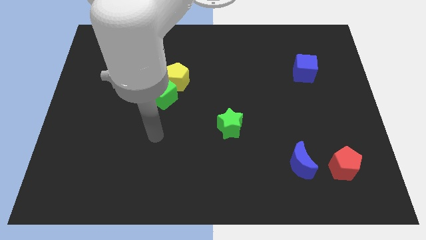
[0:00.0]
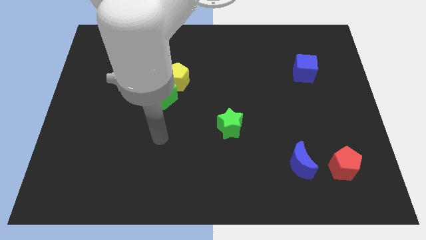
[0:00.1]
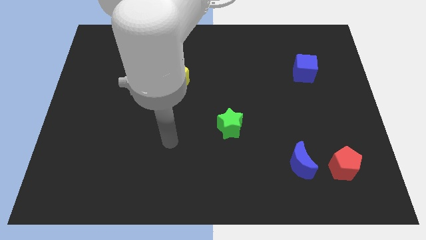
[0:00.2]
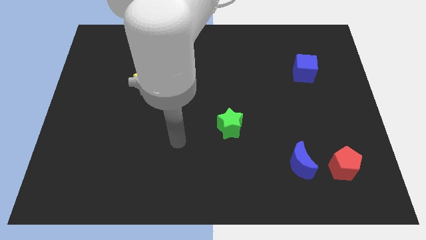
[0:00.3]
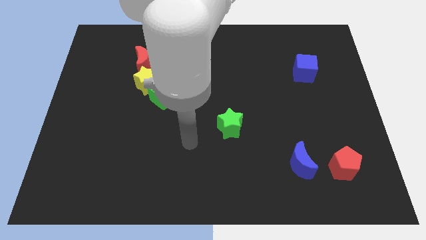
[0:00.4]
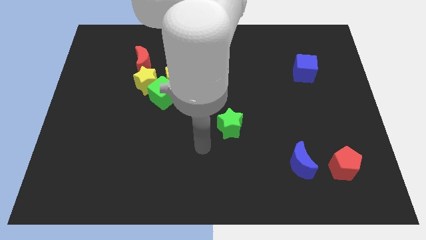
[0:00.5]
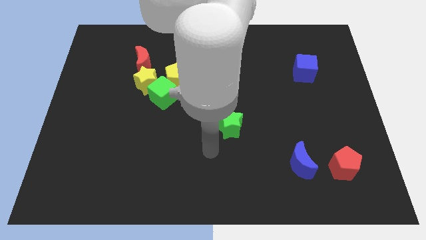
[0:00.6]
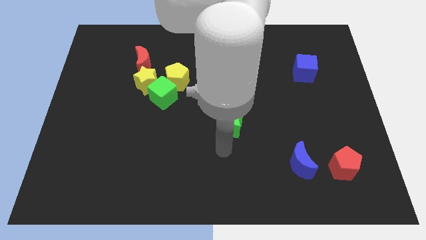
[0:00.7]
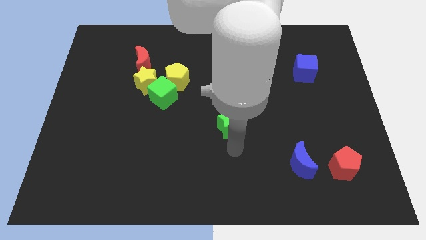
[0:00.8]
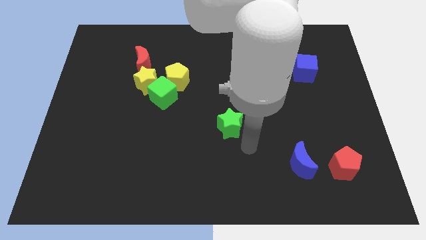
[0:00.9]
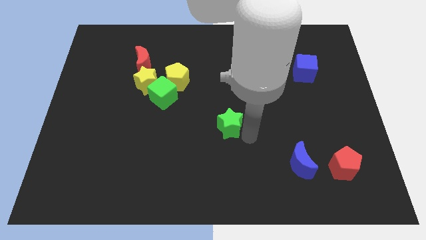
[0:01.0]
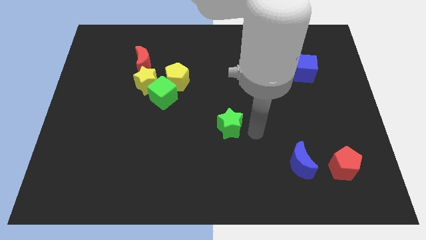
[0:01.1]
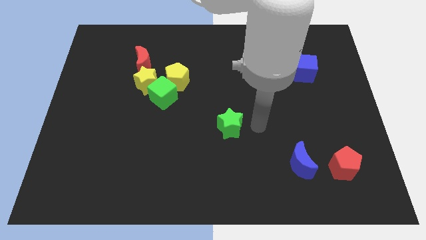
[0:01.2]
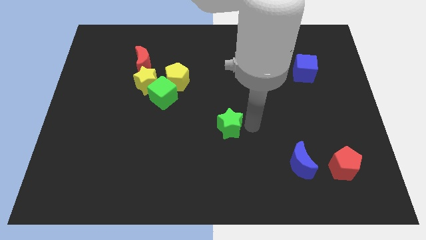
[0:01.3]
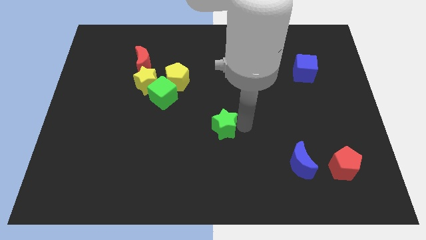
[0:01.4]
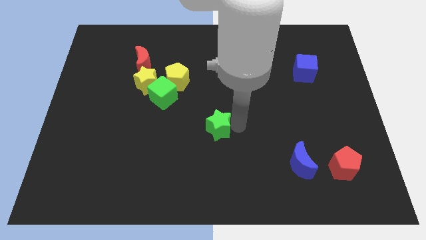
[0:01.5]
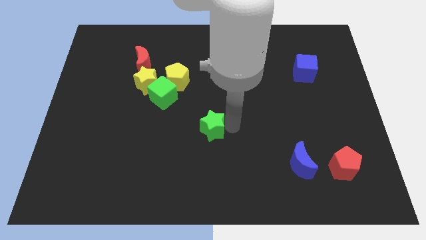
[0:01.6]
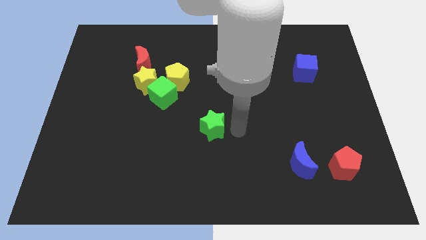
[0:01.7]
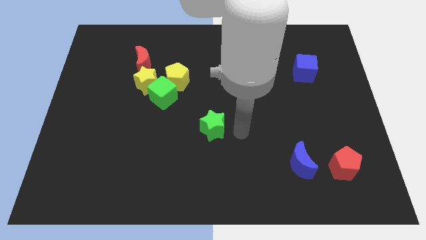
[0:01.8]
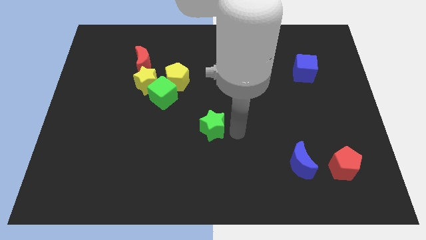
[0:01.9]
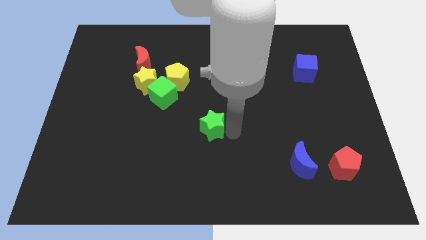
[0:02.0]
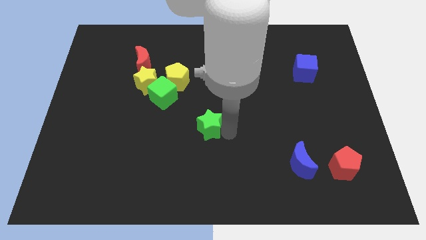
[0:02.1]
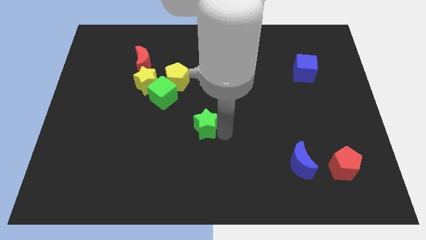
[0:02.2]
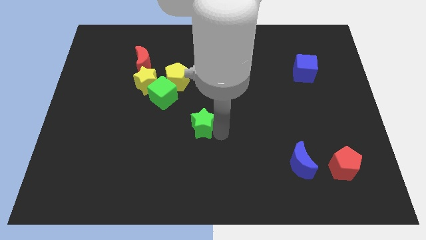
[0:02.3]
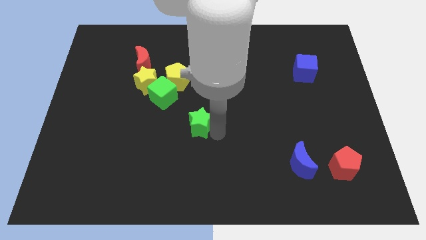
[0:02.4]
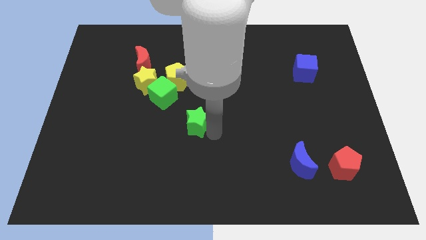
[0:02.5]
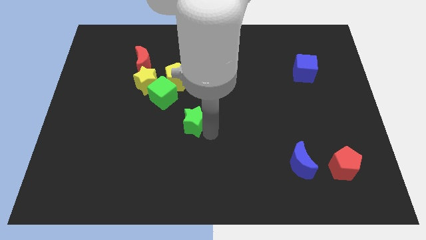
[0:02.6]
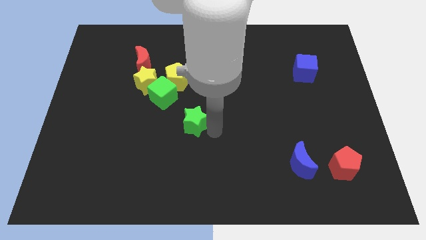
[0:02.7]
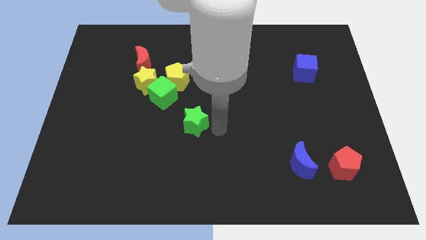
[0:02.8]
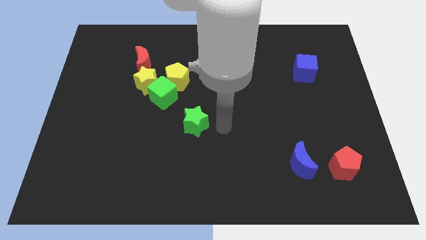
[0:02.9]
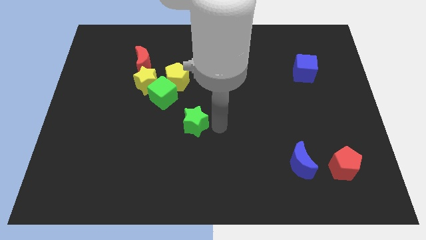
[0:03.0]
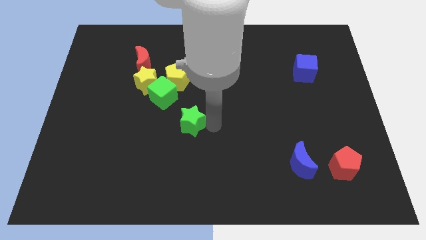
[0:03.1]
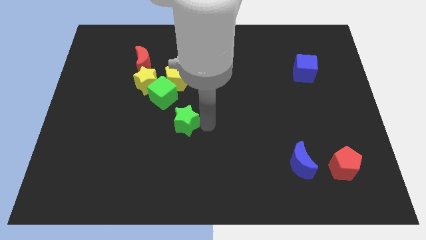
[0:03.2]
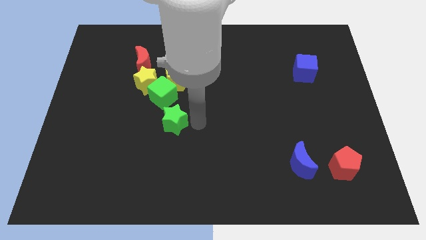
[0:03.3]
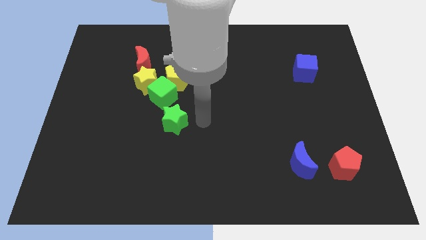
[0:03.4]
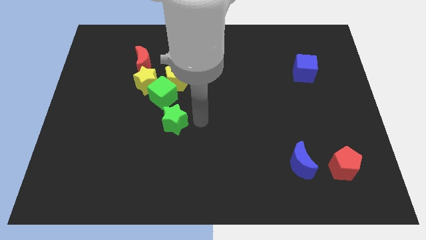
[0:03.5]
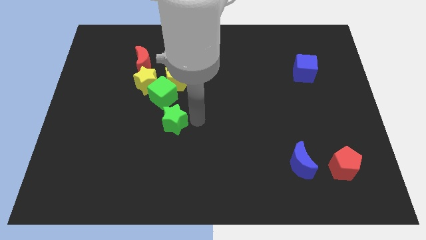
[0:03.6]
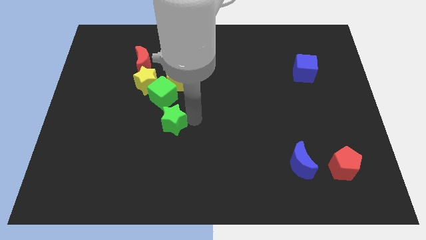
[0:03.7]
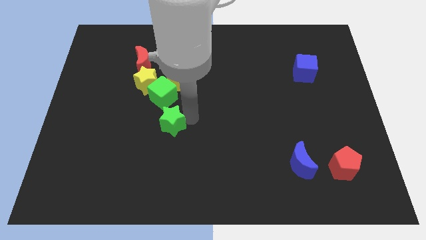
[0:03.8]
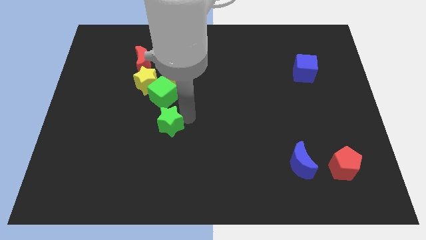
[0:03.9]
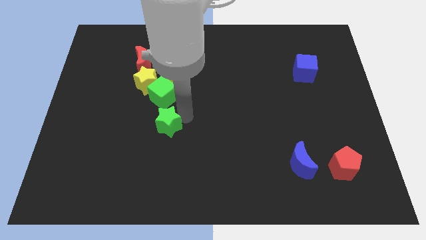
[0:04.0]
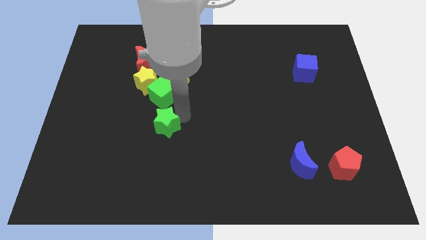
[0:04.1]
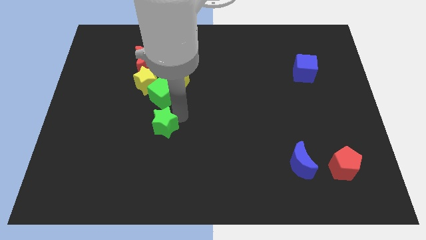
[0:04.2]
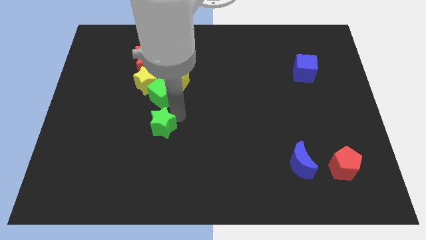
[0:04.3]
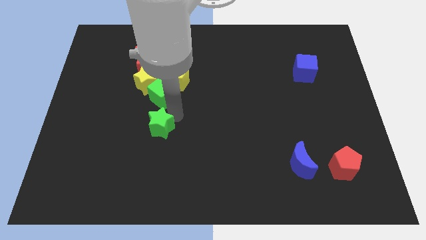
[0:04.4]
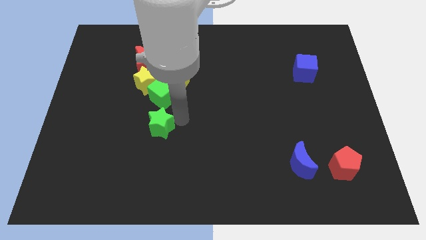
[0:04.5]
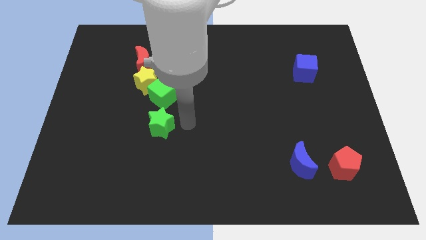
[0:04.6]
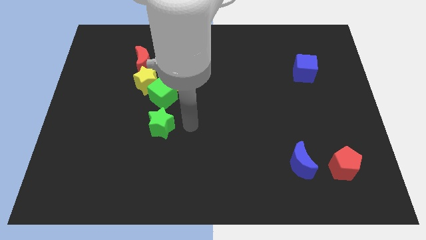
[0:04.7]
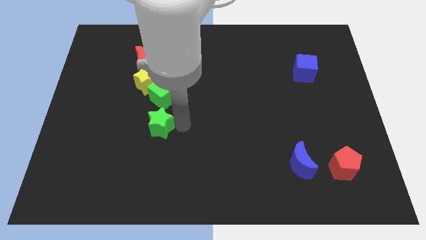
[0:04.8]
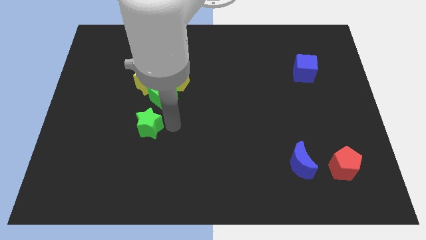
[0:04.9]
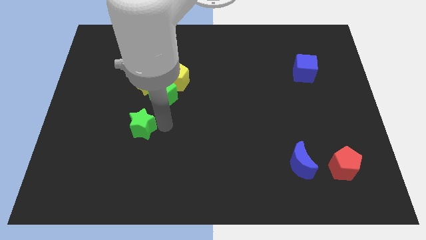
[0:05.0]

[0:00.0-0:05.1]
move the green star left

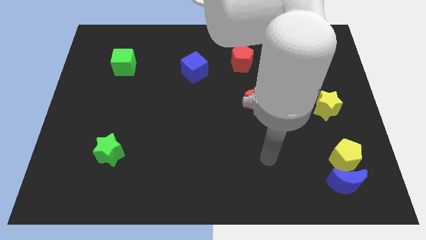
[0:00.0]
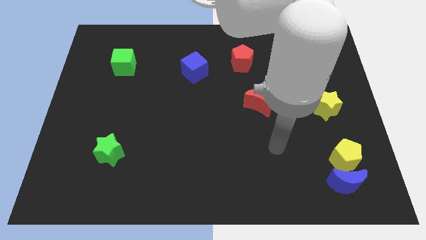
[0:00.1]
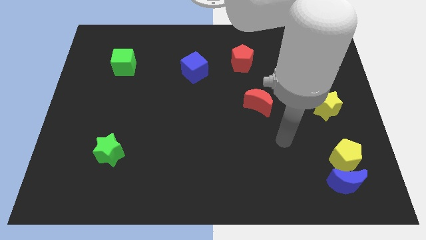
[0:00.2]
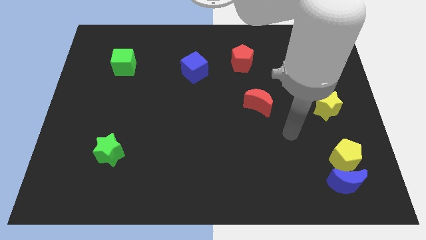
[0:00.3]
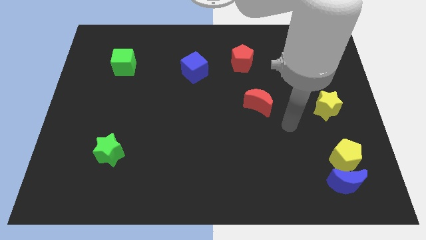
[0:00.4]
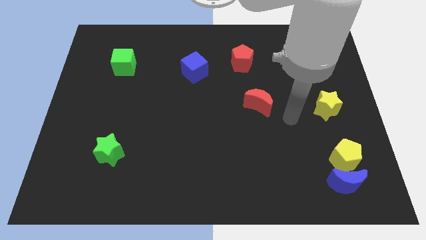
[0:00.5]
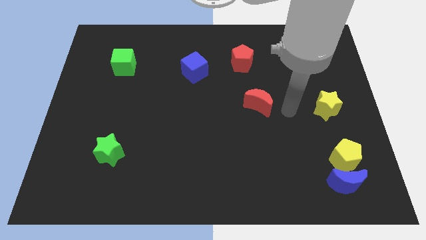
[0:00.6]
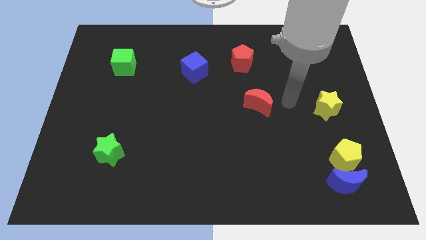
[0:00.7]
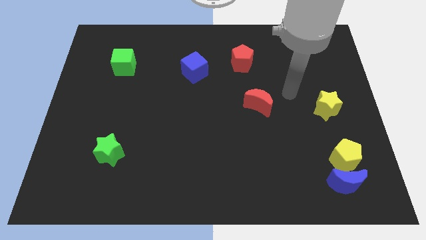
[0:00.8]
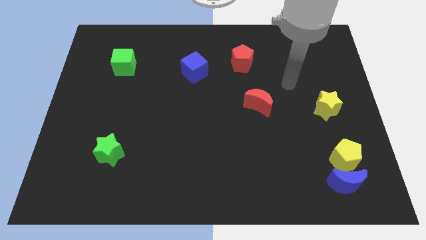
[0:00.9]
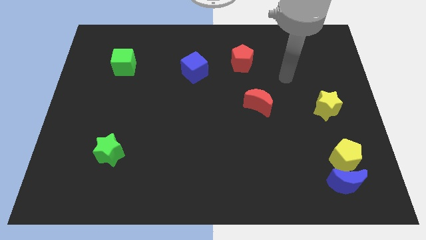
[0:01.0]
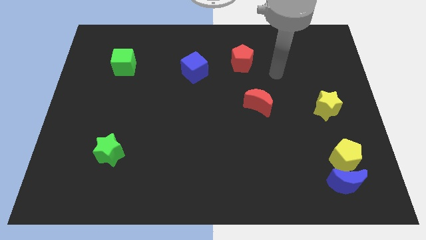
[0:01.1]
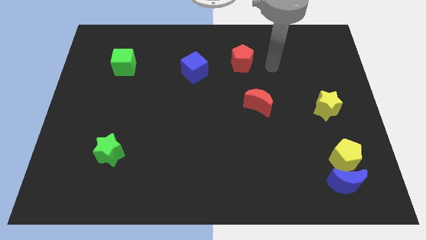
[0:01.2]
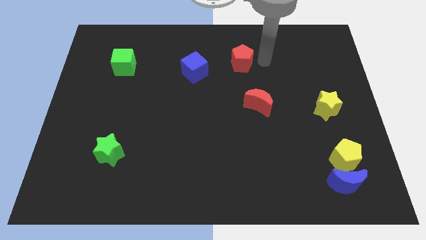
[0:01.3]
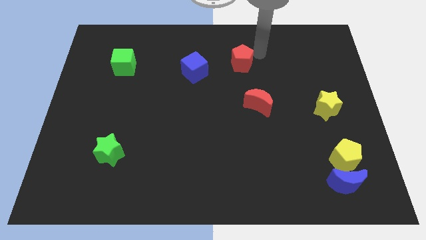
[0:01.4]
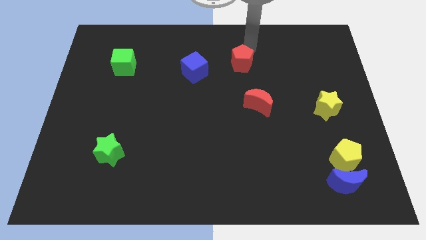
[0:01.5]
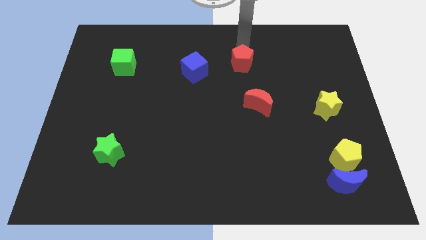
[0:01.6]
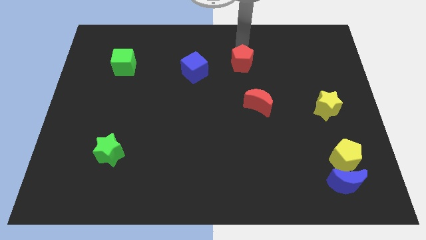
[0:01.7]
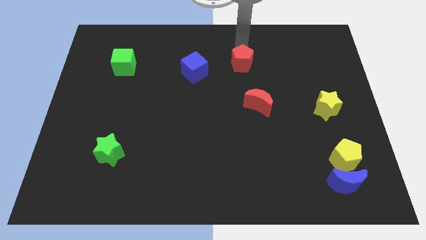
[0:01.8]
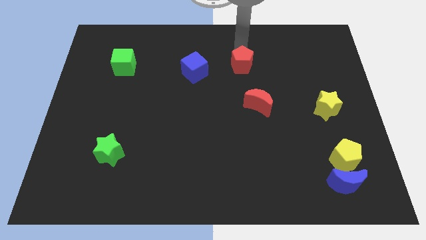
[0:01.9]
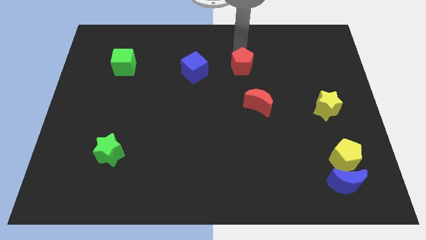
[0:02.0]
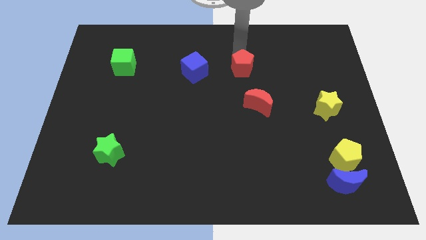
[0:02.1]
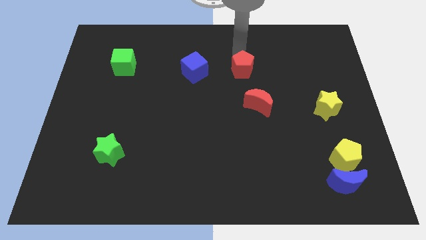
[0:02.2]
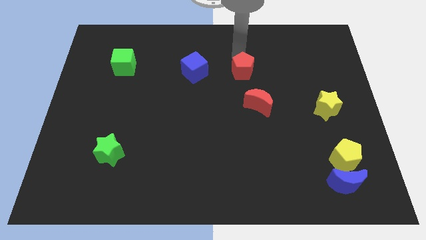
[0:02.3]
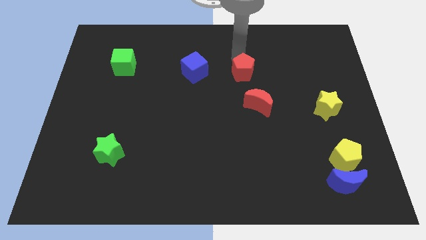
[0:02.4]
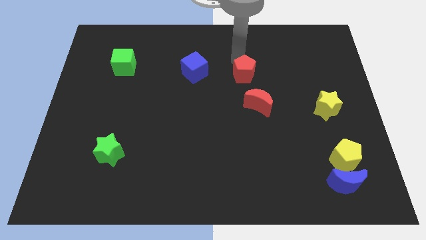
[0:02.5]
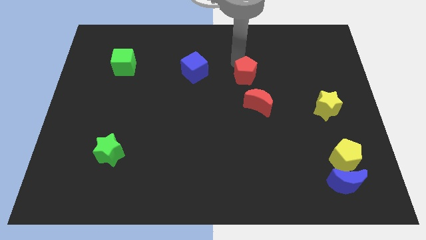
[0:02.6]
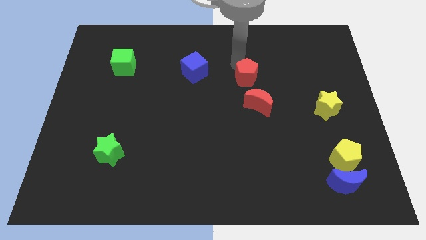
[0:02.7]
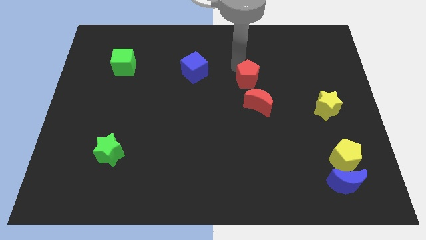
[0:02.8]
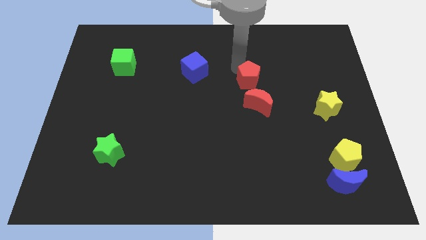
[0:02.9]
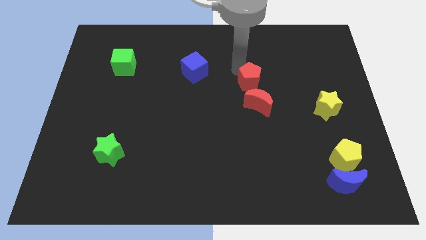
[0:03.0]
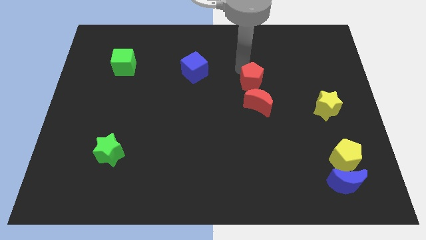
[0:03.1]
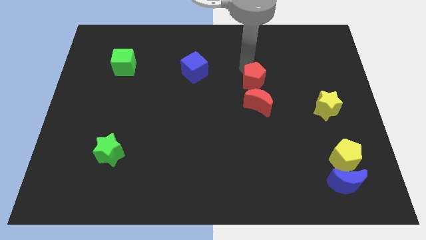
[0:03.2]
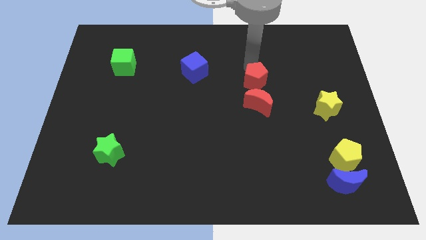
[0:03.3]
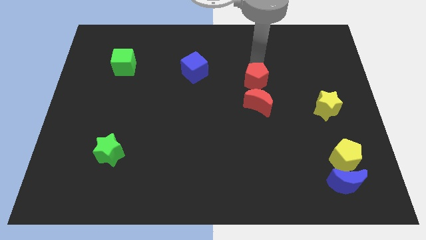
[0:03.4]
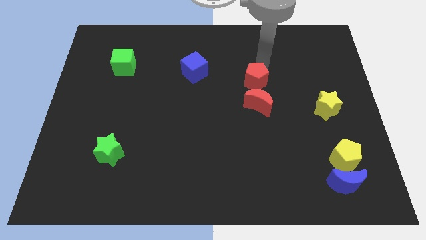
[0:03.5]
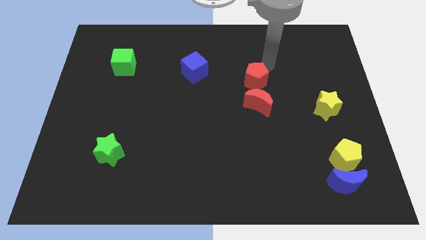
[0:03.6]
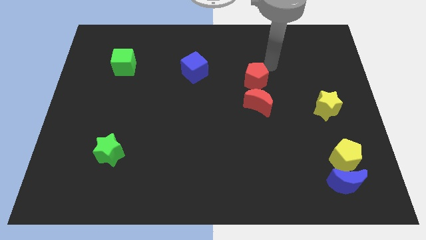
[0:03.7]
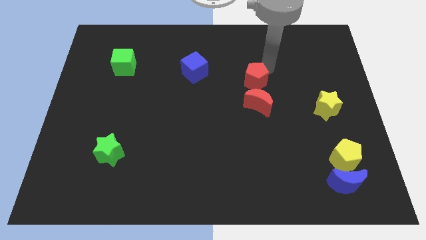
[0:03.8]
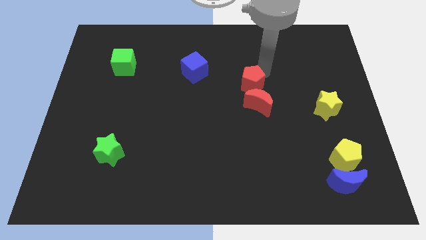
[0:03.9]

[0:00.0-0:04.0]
slightly move the red pentagon downwards
